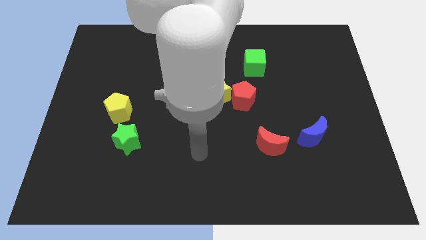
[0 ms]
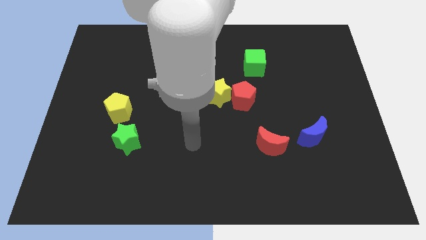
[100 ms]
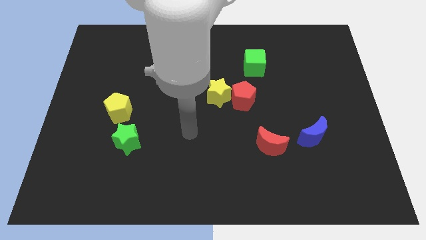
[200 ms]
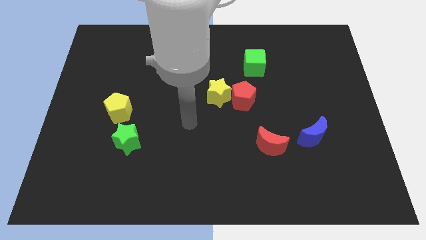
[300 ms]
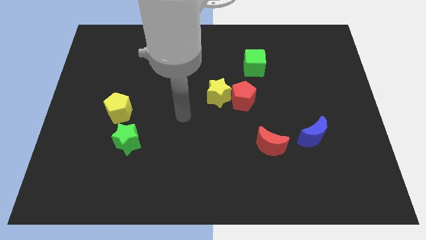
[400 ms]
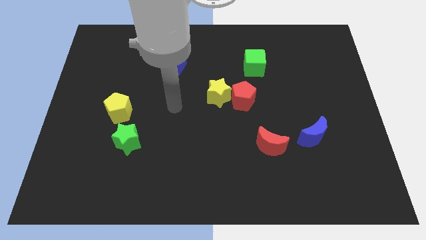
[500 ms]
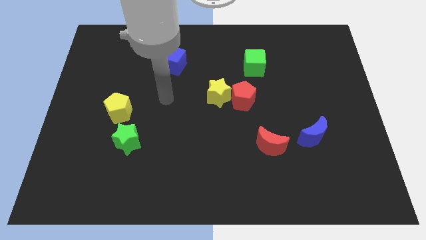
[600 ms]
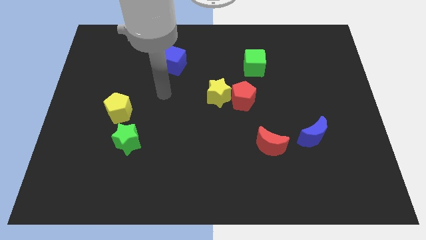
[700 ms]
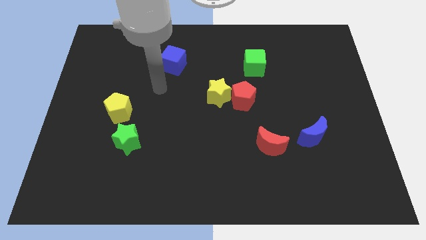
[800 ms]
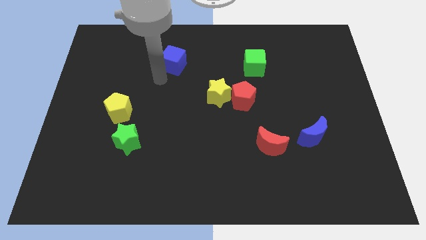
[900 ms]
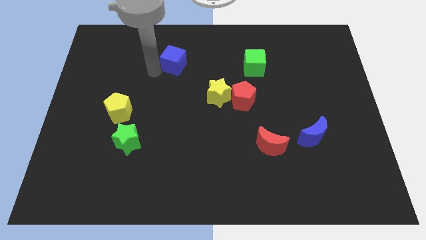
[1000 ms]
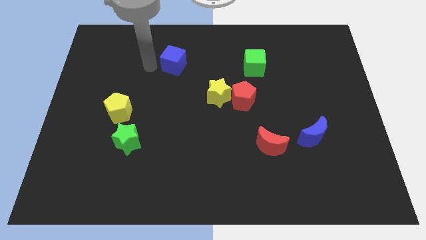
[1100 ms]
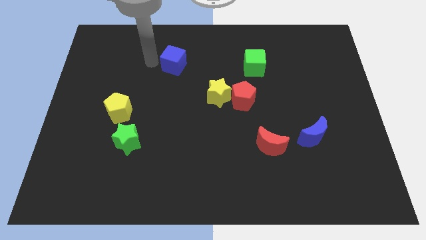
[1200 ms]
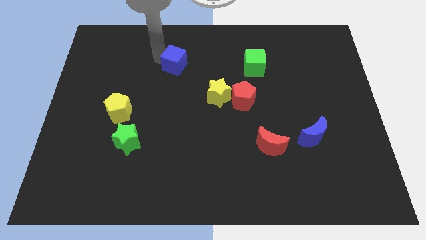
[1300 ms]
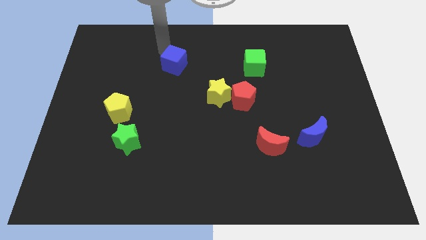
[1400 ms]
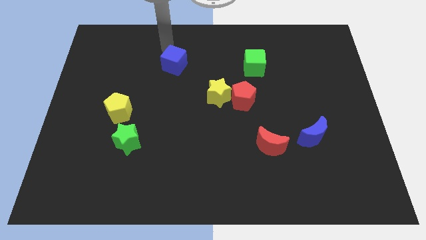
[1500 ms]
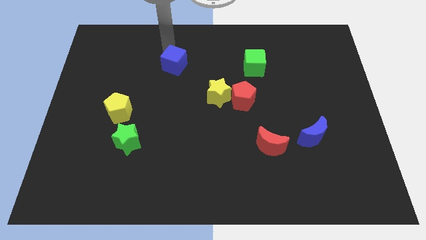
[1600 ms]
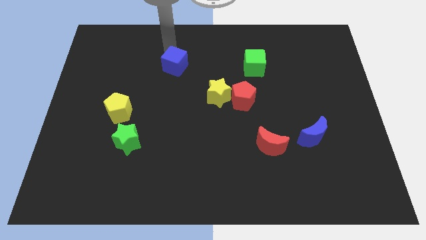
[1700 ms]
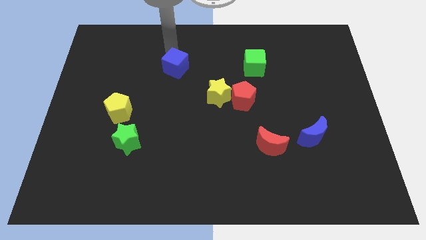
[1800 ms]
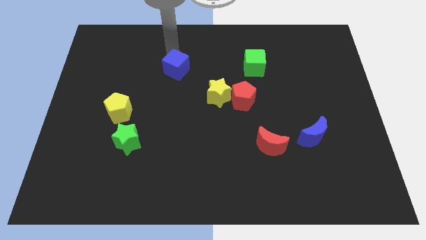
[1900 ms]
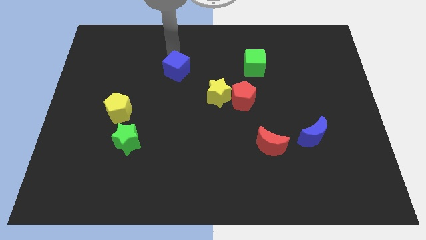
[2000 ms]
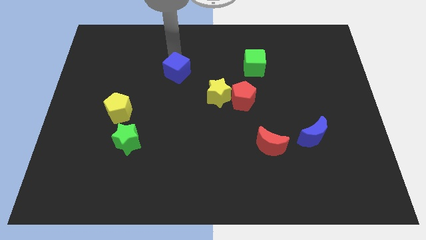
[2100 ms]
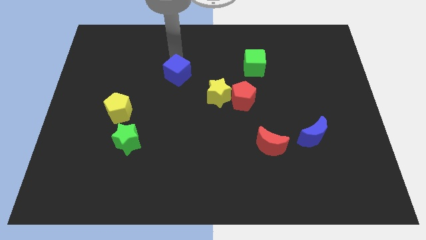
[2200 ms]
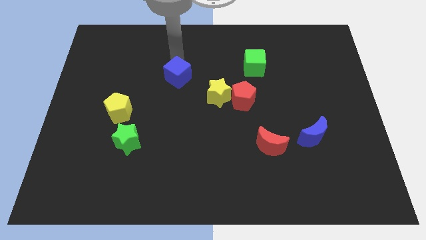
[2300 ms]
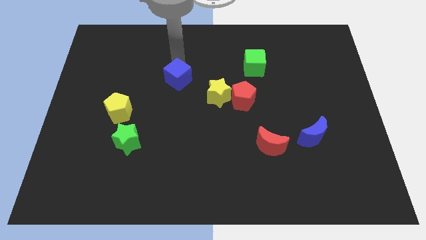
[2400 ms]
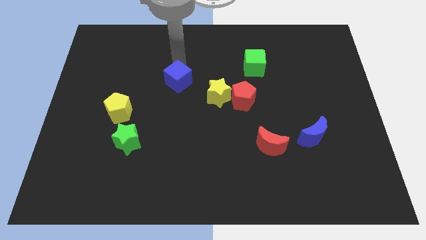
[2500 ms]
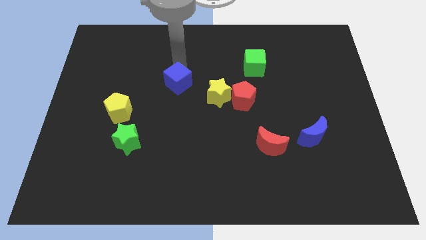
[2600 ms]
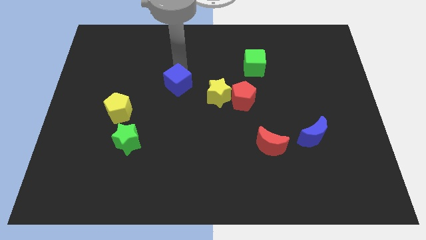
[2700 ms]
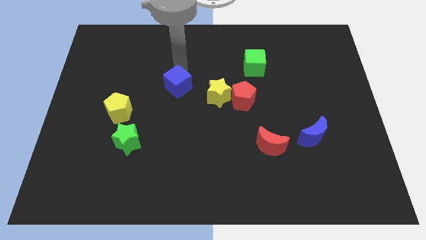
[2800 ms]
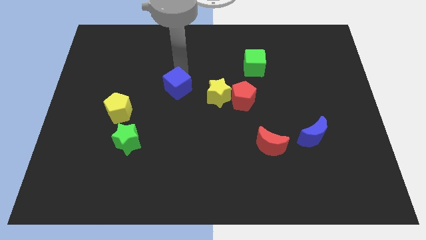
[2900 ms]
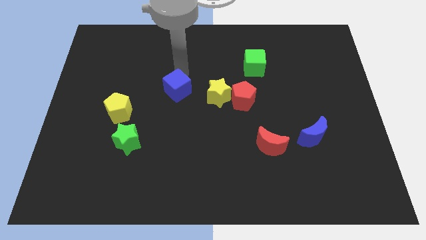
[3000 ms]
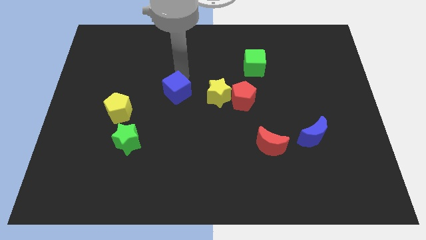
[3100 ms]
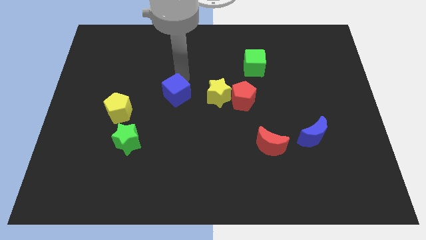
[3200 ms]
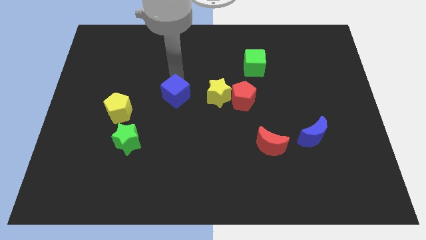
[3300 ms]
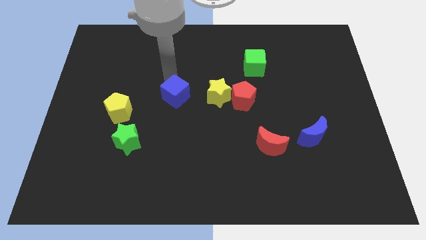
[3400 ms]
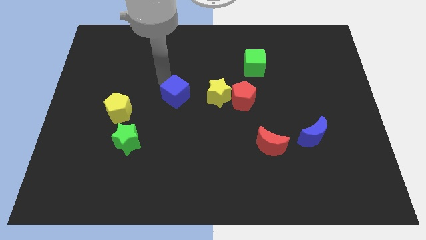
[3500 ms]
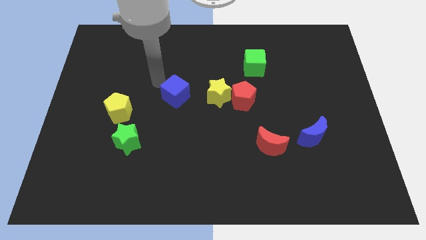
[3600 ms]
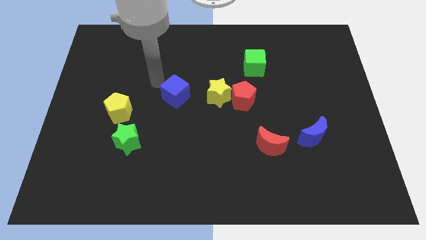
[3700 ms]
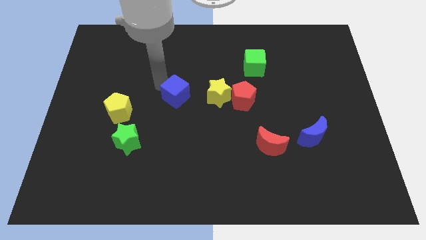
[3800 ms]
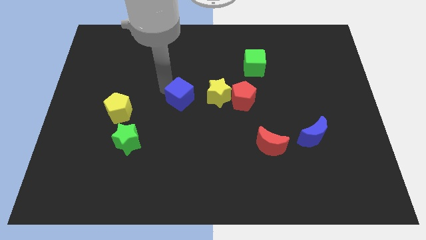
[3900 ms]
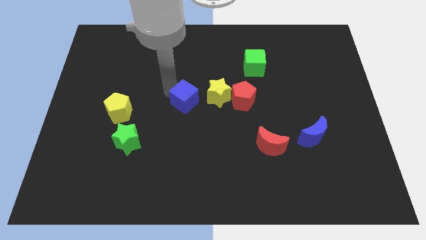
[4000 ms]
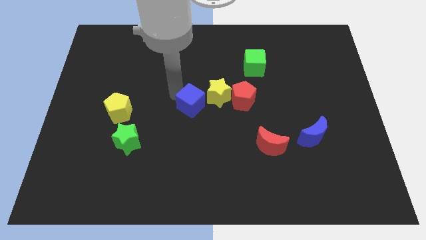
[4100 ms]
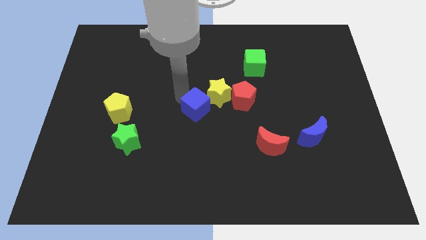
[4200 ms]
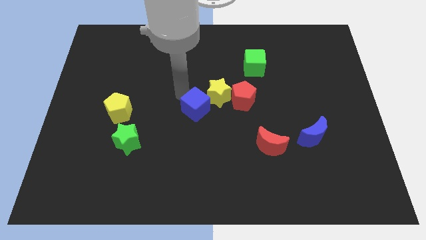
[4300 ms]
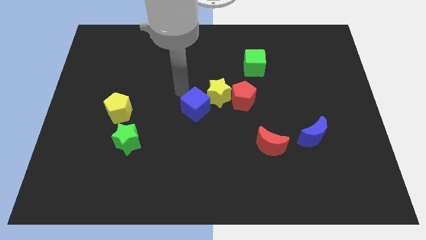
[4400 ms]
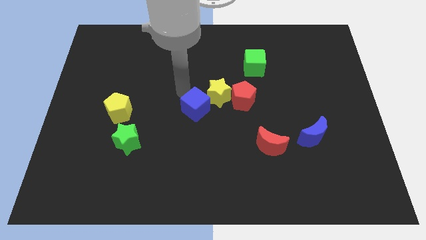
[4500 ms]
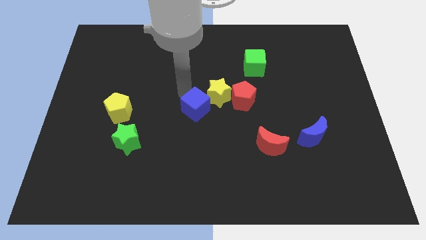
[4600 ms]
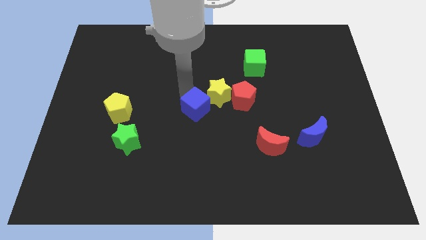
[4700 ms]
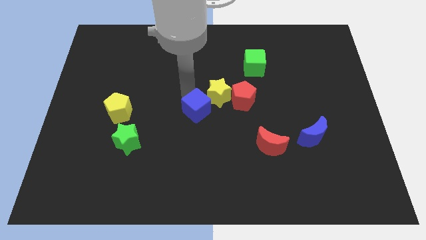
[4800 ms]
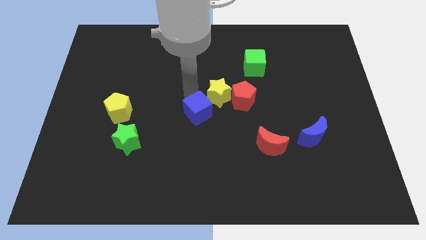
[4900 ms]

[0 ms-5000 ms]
push the blue cube to the bottom side of the yellow star

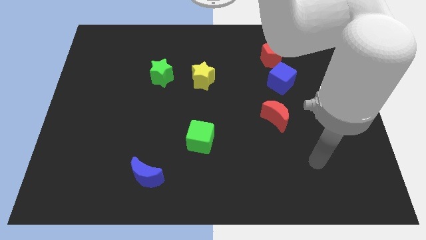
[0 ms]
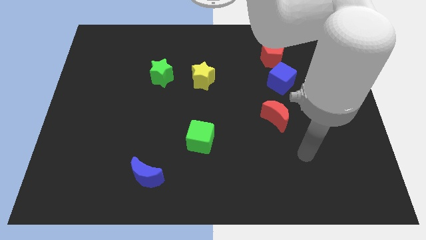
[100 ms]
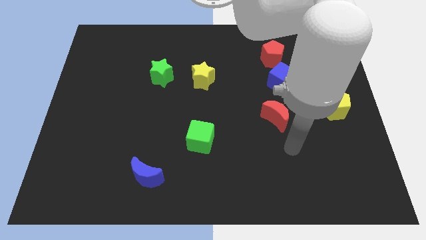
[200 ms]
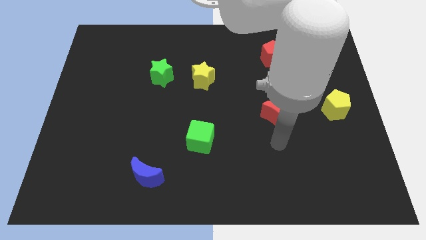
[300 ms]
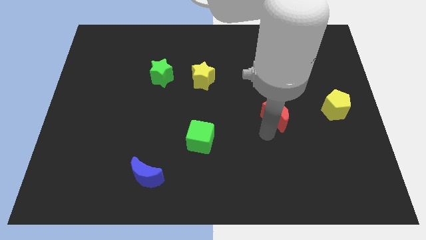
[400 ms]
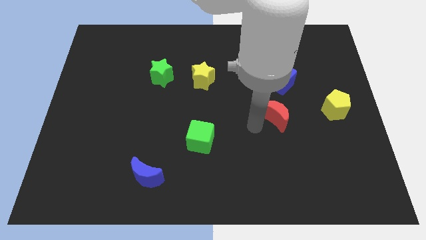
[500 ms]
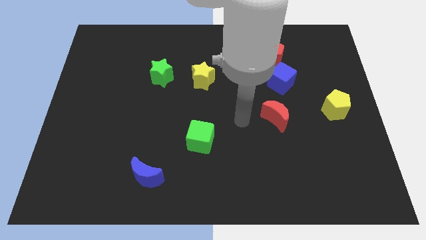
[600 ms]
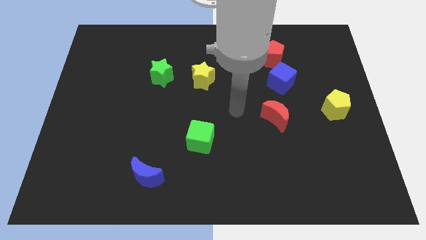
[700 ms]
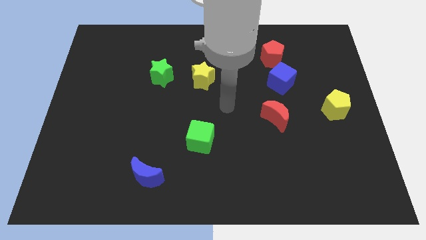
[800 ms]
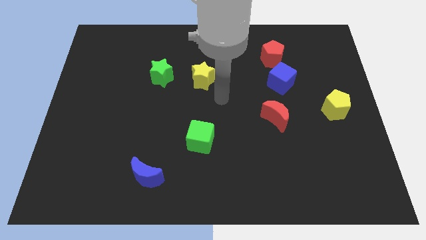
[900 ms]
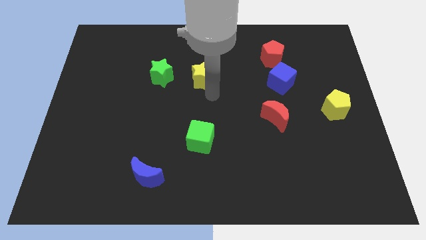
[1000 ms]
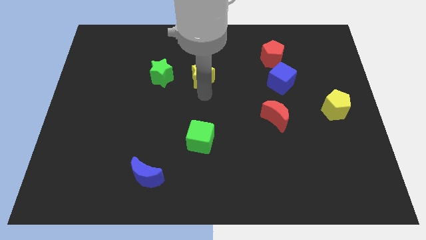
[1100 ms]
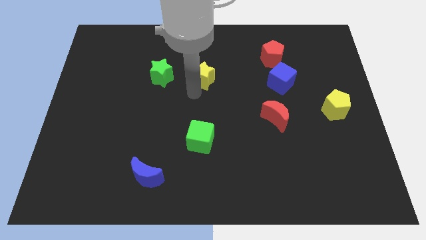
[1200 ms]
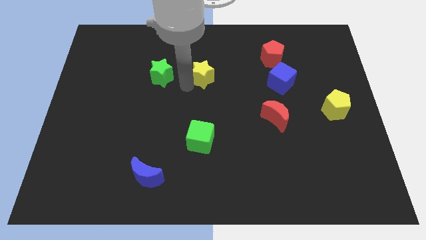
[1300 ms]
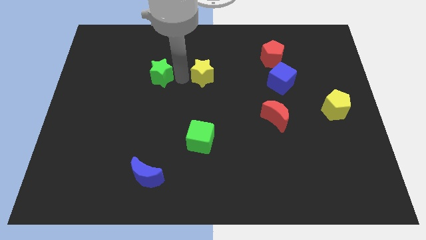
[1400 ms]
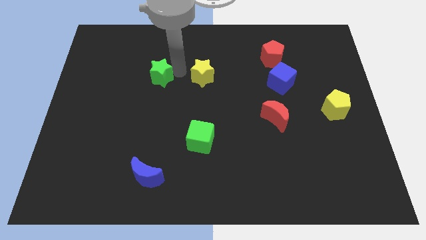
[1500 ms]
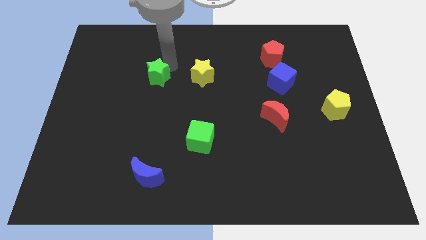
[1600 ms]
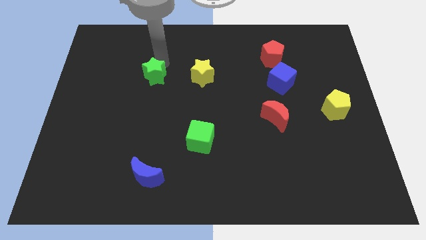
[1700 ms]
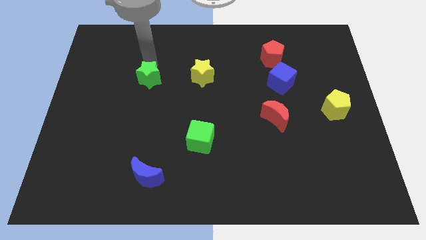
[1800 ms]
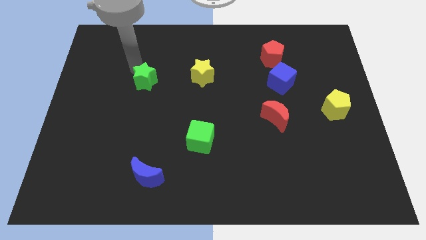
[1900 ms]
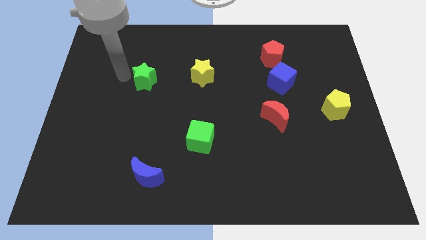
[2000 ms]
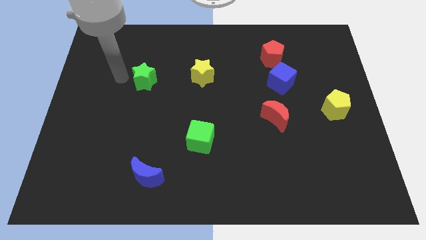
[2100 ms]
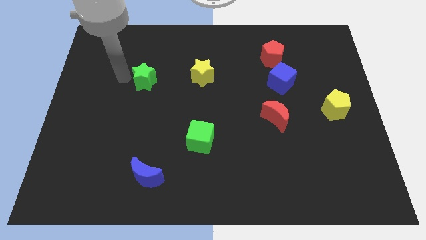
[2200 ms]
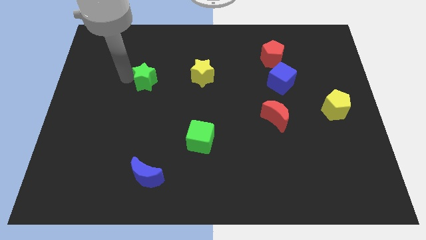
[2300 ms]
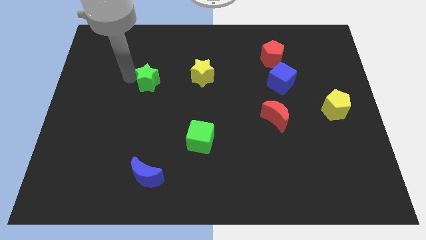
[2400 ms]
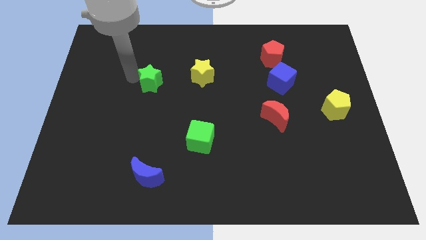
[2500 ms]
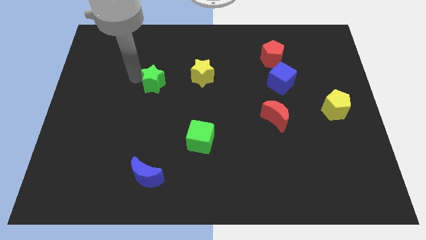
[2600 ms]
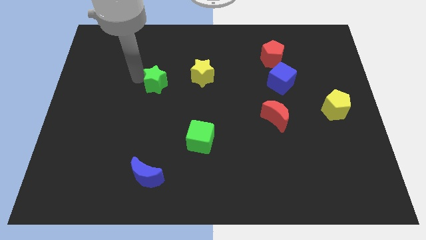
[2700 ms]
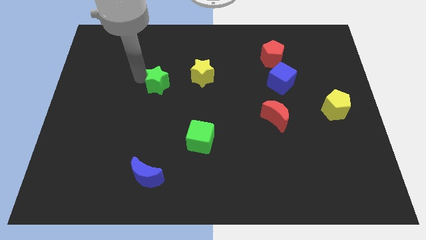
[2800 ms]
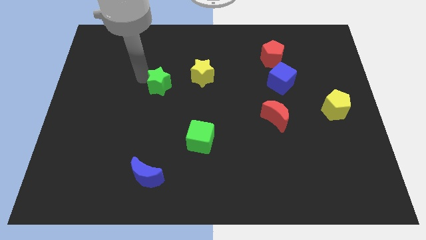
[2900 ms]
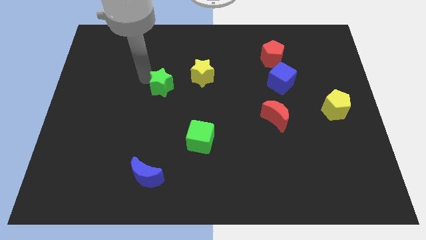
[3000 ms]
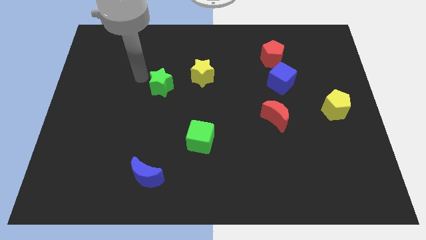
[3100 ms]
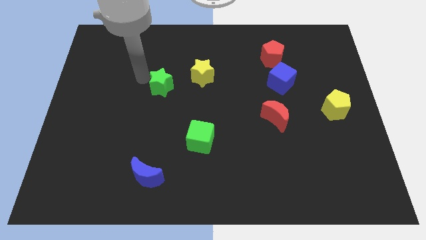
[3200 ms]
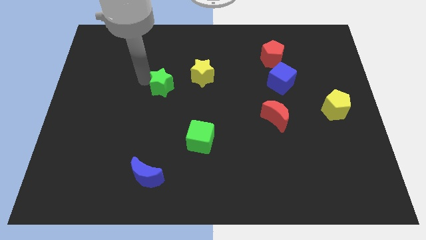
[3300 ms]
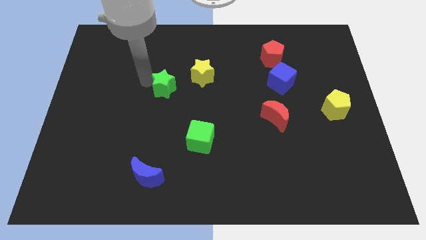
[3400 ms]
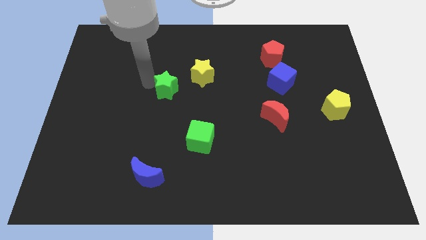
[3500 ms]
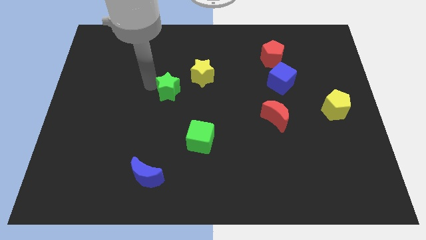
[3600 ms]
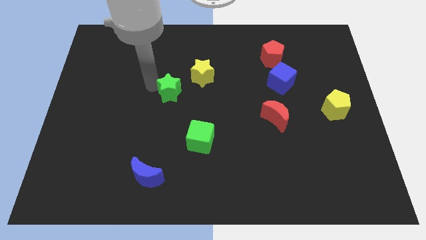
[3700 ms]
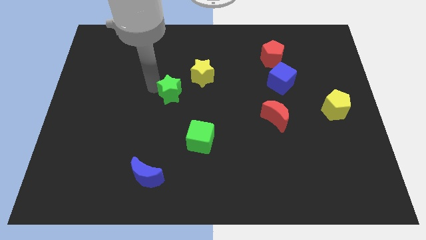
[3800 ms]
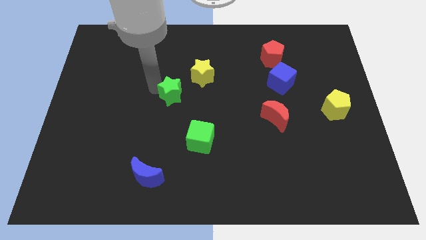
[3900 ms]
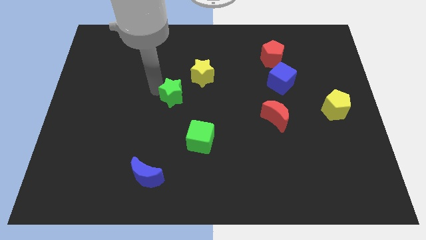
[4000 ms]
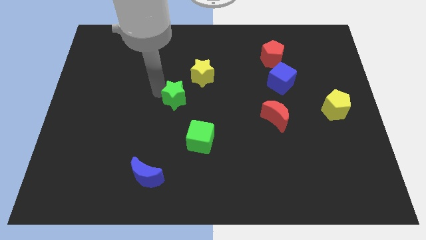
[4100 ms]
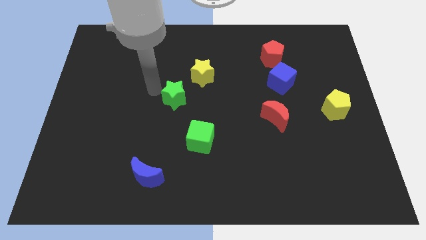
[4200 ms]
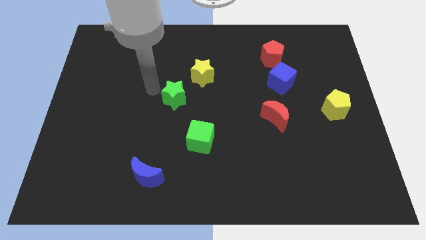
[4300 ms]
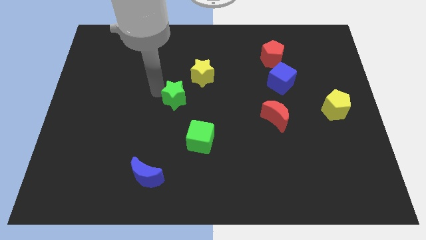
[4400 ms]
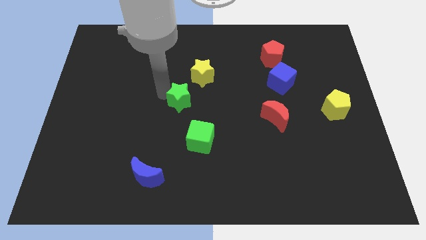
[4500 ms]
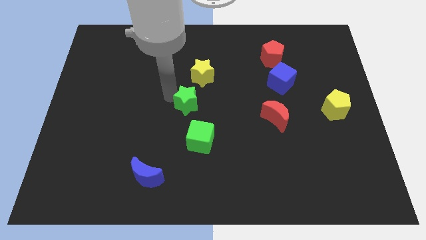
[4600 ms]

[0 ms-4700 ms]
push the green star below the yellow star
